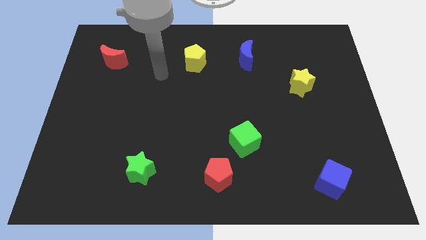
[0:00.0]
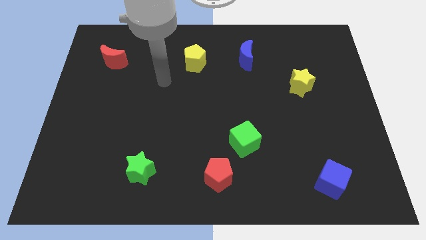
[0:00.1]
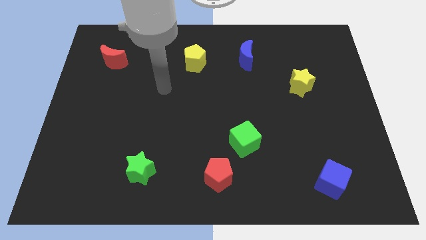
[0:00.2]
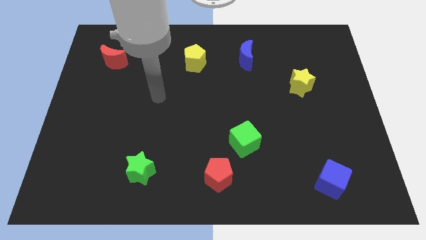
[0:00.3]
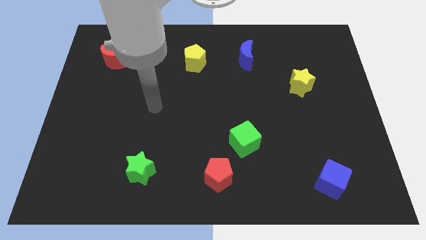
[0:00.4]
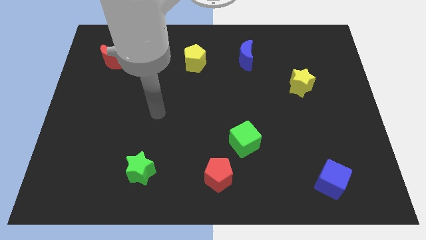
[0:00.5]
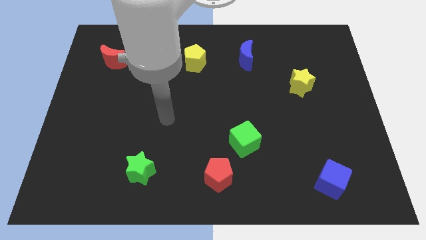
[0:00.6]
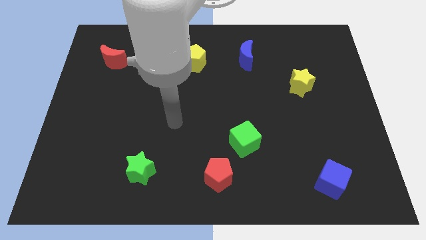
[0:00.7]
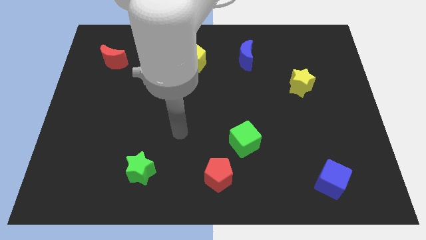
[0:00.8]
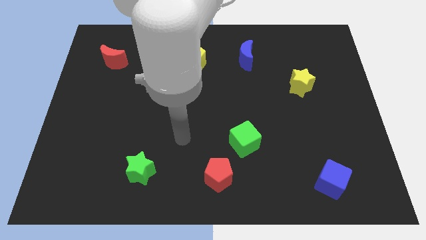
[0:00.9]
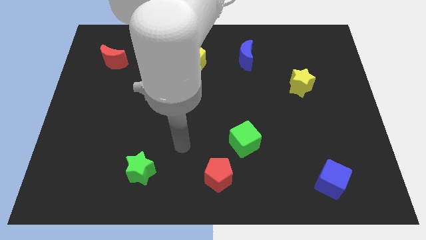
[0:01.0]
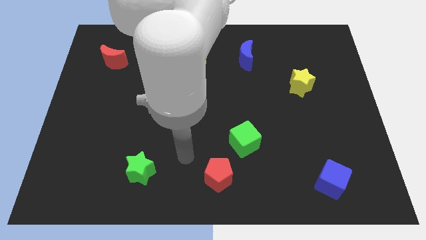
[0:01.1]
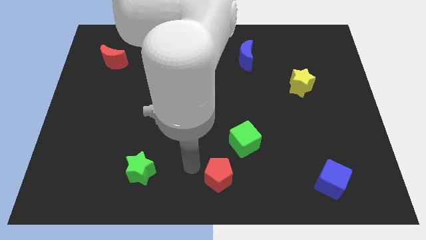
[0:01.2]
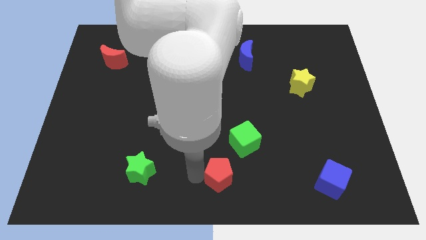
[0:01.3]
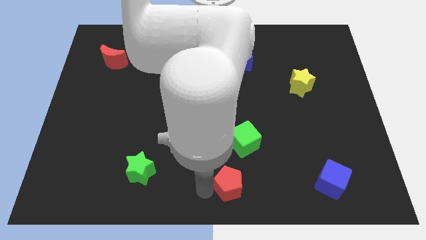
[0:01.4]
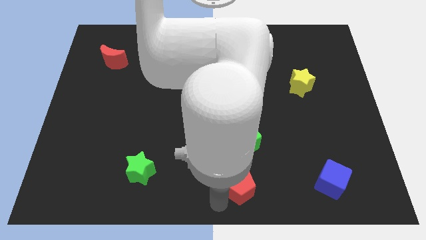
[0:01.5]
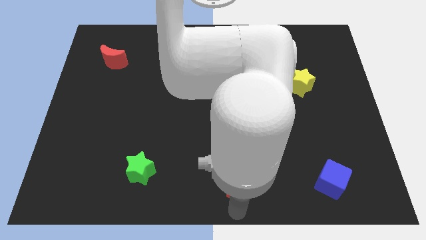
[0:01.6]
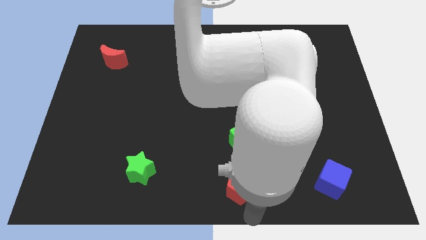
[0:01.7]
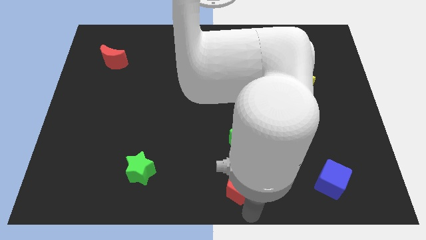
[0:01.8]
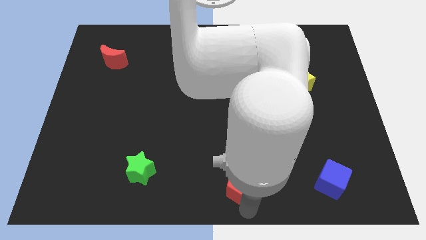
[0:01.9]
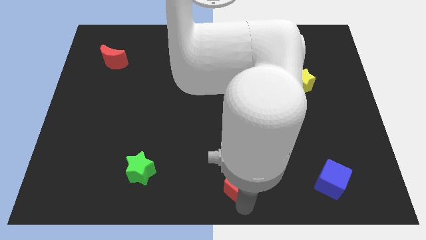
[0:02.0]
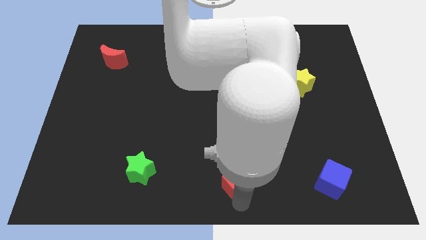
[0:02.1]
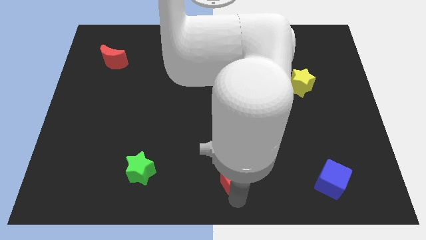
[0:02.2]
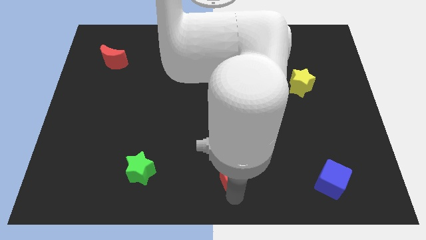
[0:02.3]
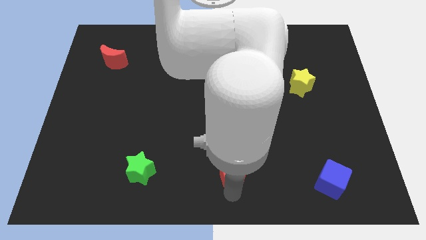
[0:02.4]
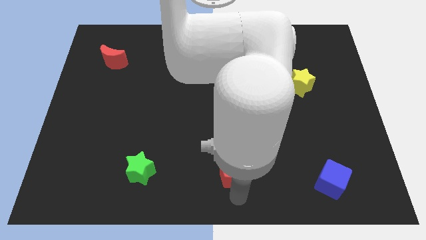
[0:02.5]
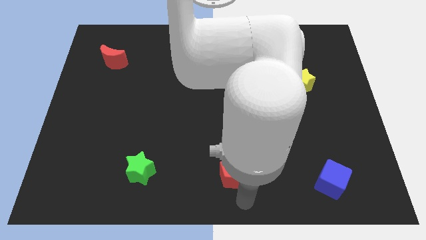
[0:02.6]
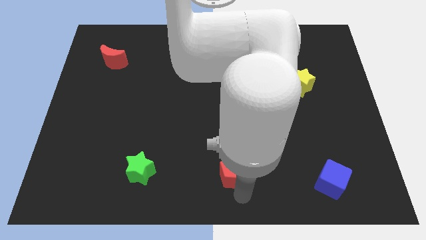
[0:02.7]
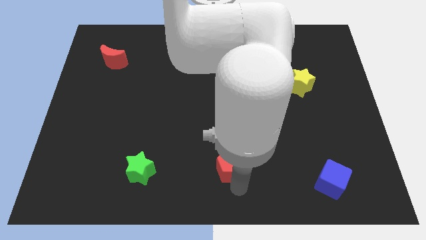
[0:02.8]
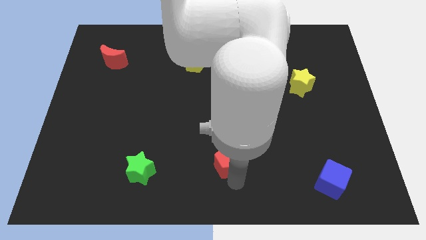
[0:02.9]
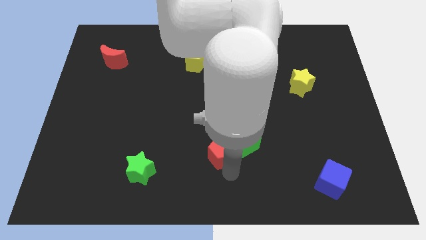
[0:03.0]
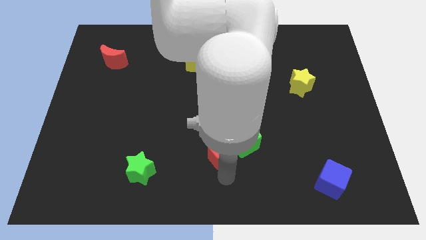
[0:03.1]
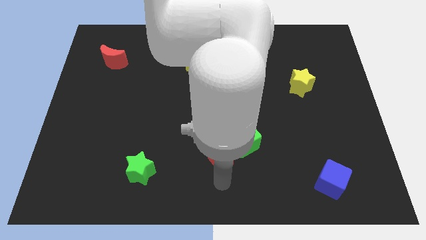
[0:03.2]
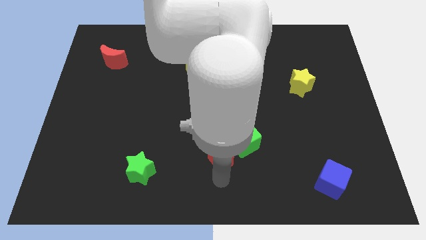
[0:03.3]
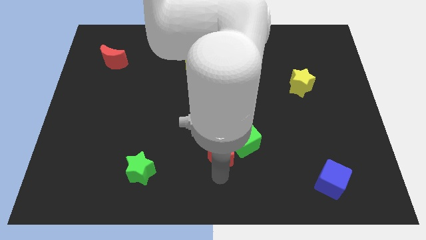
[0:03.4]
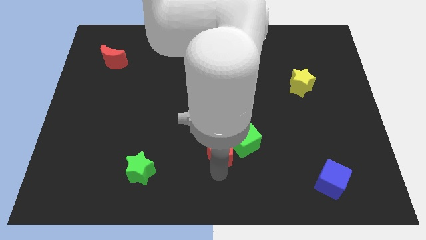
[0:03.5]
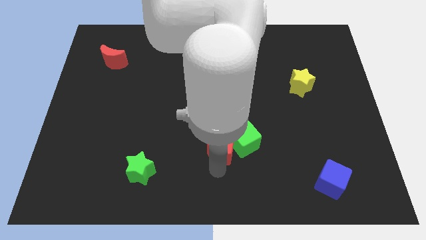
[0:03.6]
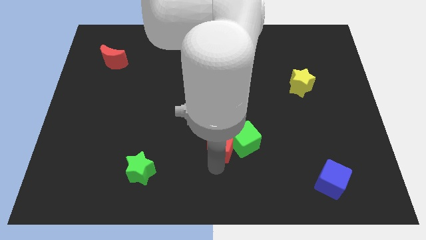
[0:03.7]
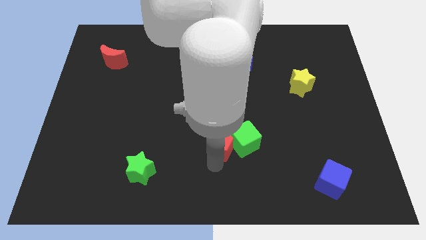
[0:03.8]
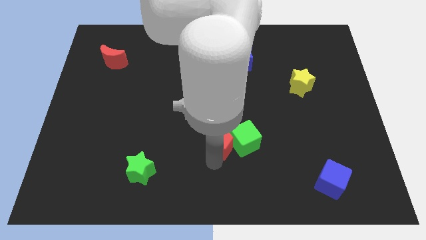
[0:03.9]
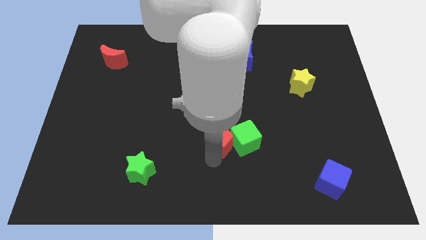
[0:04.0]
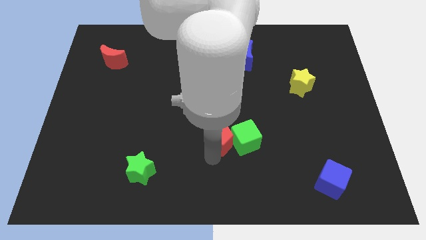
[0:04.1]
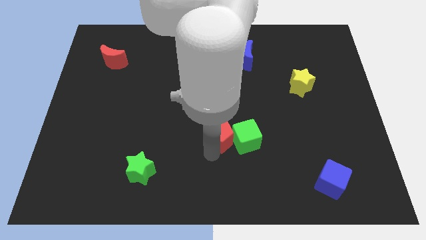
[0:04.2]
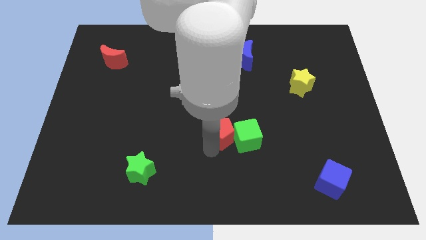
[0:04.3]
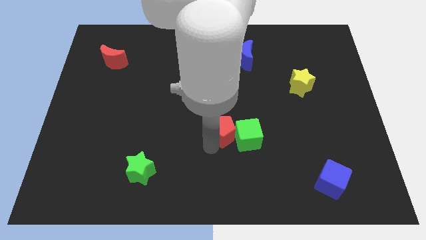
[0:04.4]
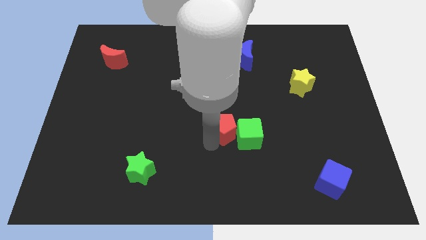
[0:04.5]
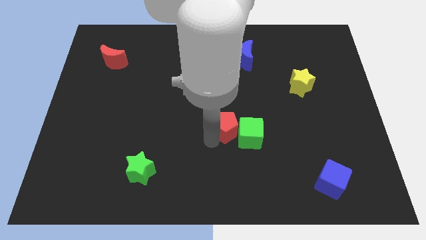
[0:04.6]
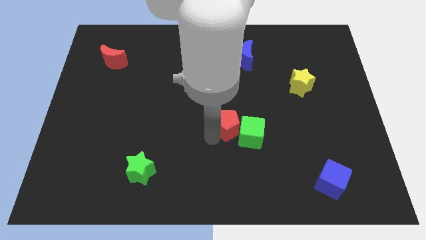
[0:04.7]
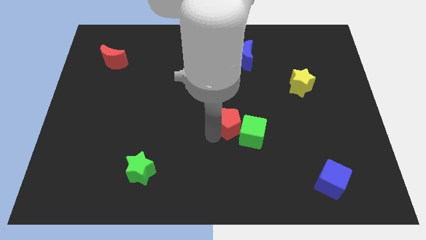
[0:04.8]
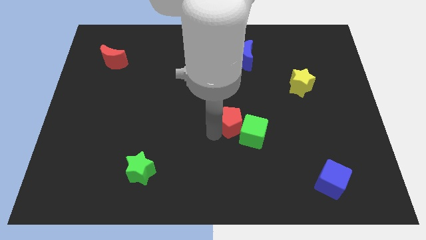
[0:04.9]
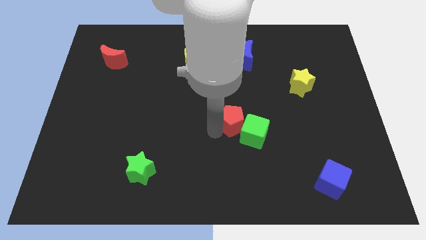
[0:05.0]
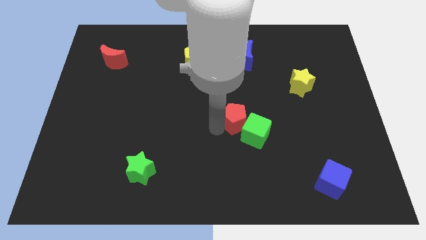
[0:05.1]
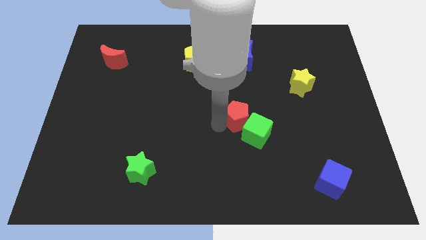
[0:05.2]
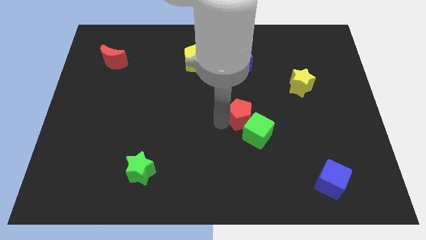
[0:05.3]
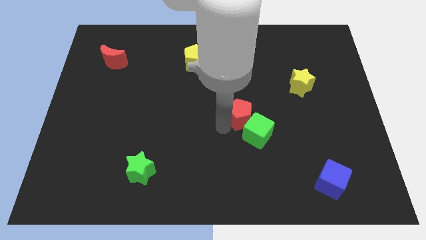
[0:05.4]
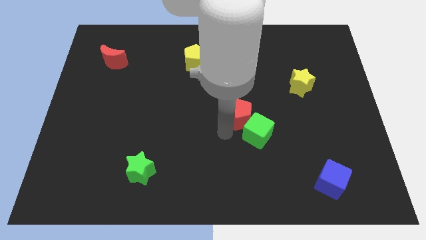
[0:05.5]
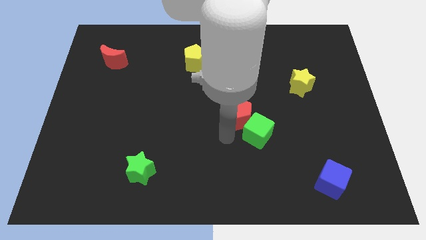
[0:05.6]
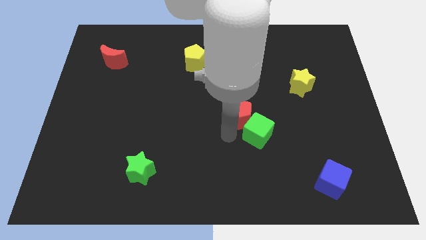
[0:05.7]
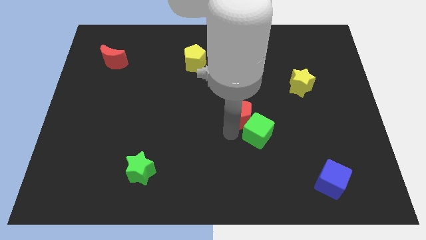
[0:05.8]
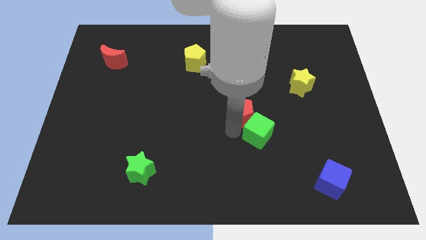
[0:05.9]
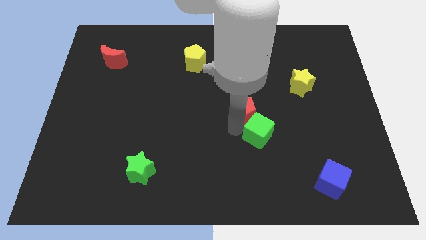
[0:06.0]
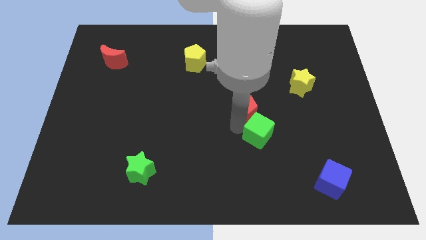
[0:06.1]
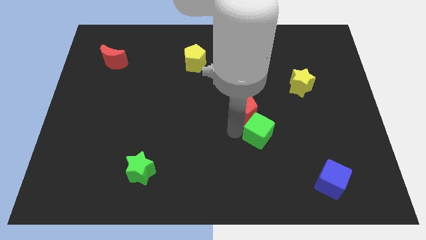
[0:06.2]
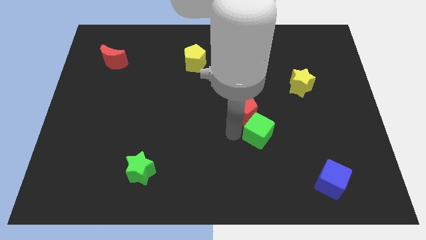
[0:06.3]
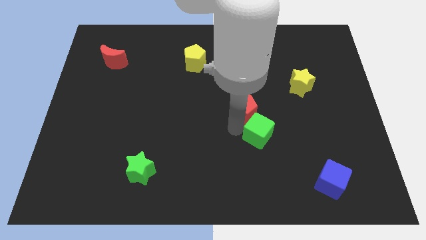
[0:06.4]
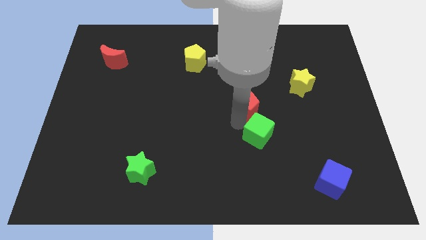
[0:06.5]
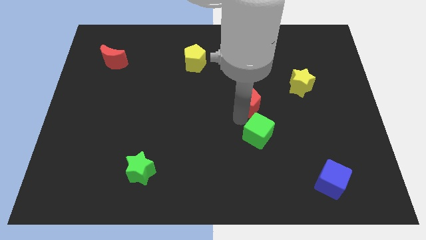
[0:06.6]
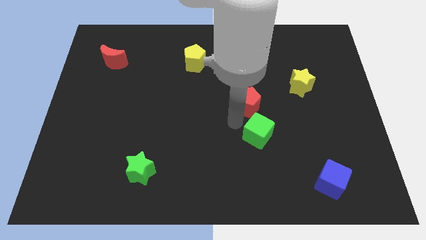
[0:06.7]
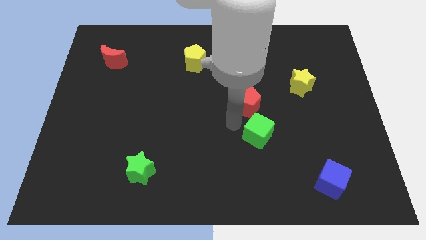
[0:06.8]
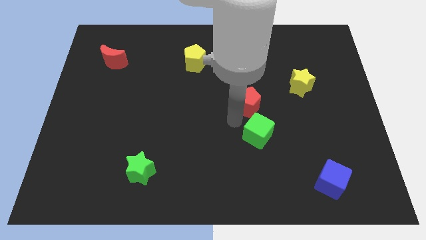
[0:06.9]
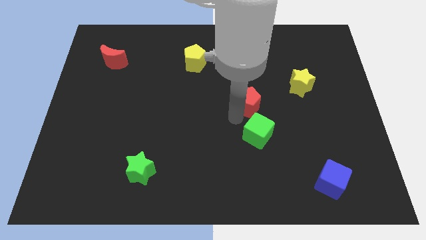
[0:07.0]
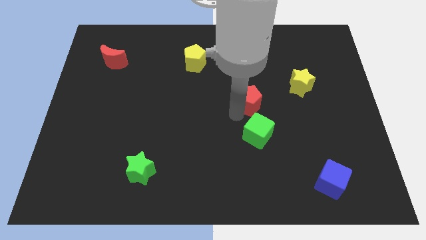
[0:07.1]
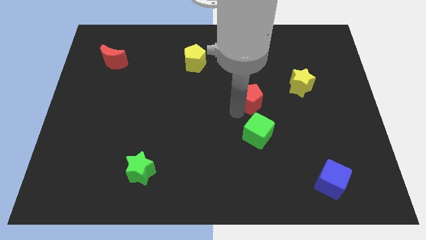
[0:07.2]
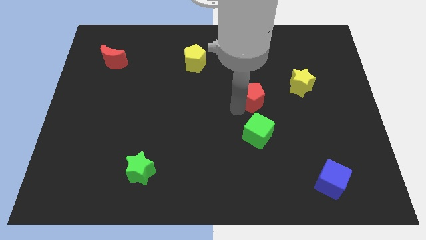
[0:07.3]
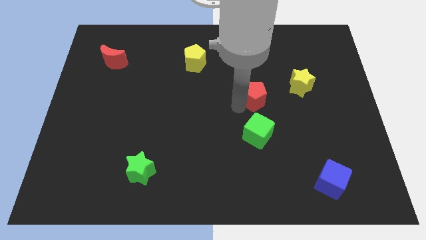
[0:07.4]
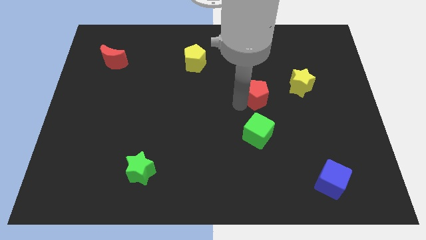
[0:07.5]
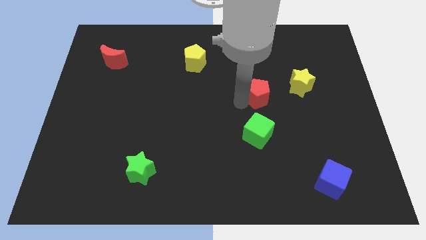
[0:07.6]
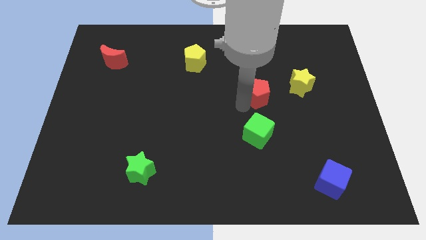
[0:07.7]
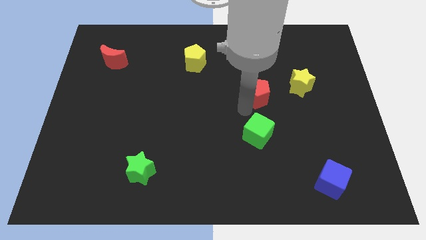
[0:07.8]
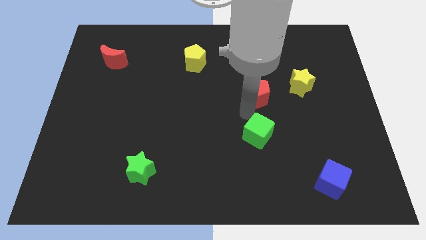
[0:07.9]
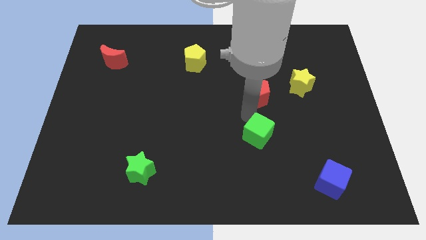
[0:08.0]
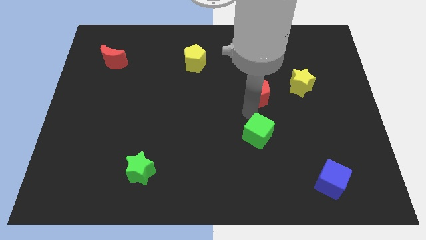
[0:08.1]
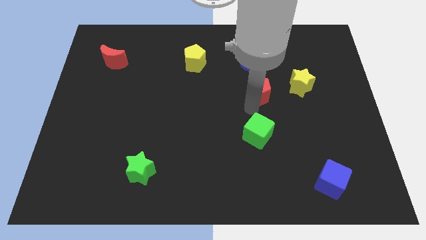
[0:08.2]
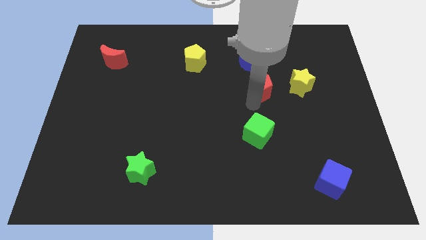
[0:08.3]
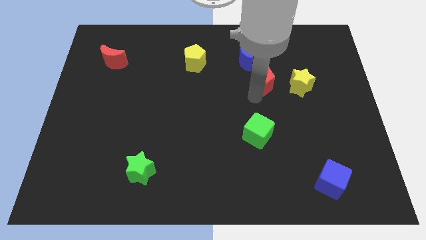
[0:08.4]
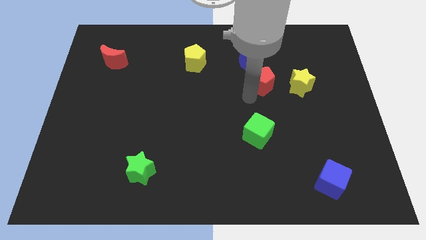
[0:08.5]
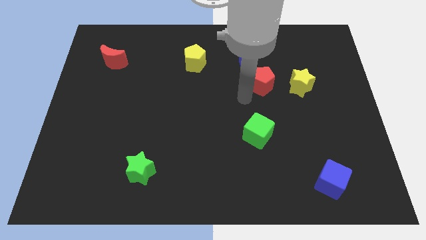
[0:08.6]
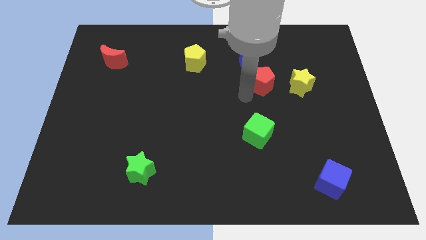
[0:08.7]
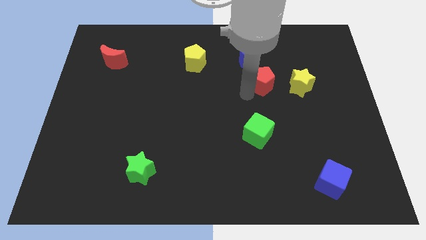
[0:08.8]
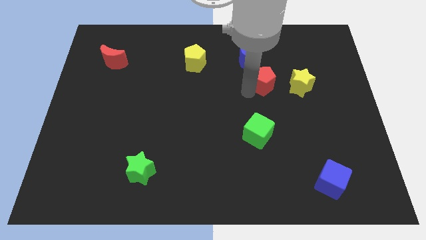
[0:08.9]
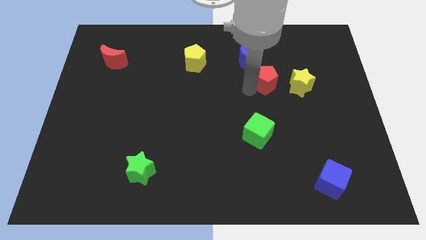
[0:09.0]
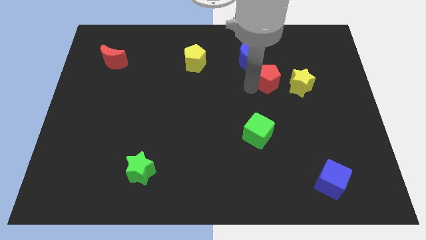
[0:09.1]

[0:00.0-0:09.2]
put the red pentagon to the top left side of the yellow star
